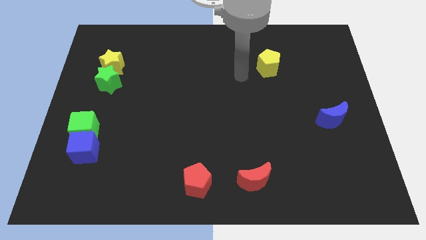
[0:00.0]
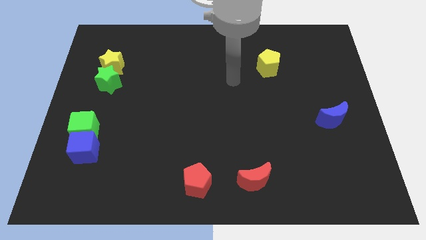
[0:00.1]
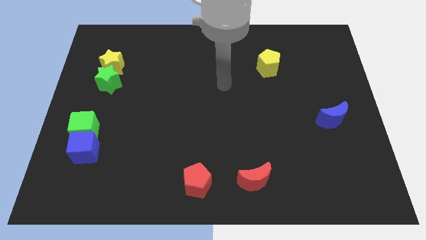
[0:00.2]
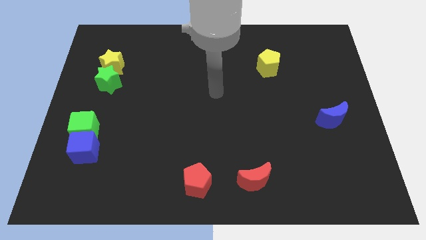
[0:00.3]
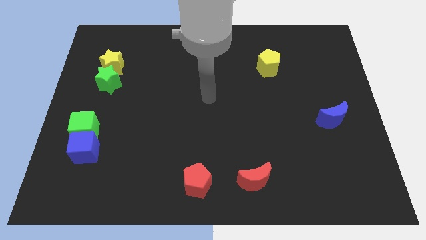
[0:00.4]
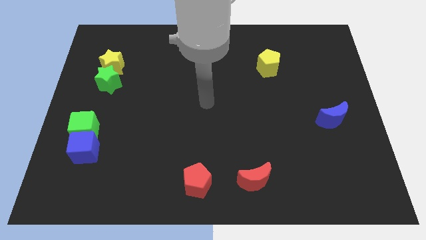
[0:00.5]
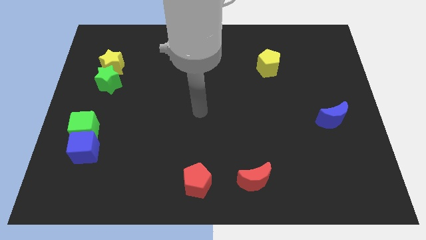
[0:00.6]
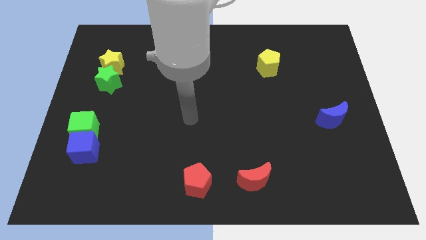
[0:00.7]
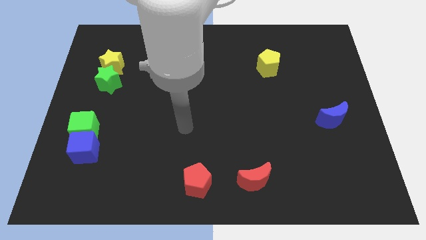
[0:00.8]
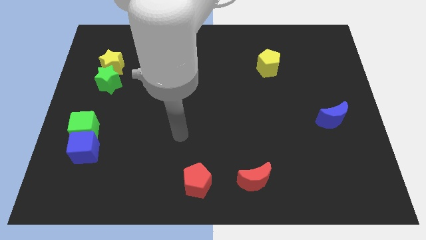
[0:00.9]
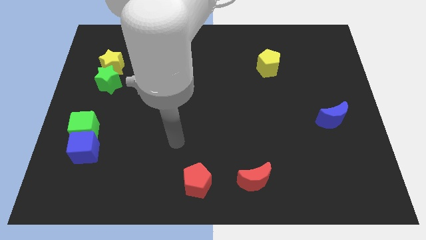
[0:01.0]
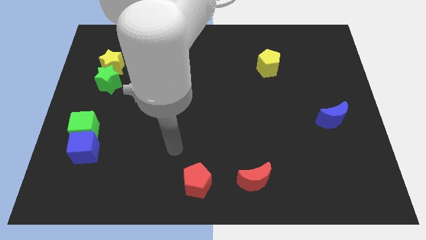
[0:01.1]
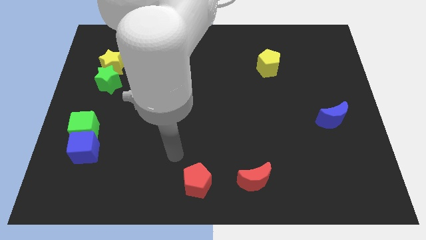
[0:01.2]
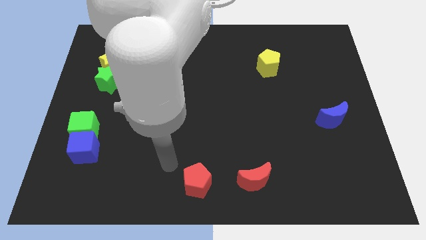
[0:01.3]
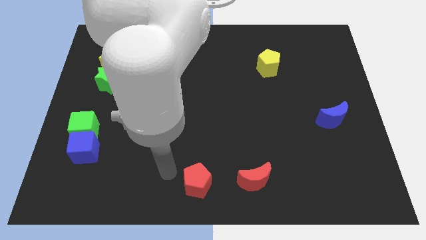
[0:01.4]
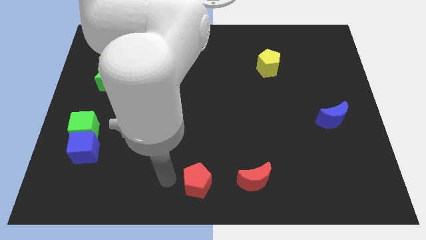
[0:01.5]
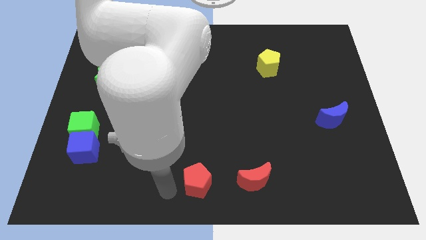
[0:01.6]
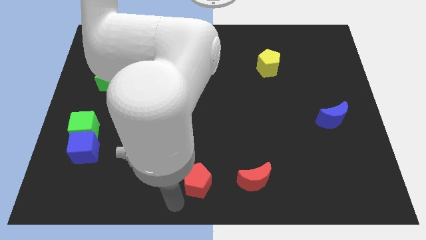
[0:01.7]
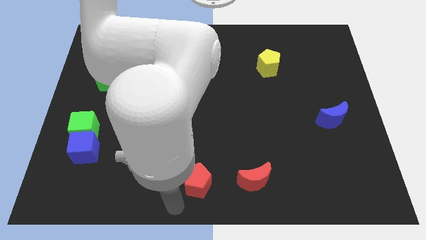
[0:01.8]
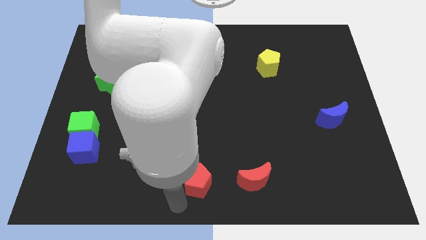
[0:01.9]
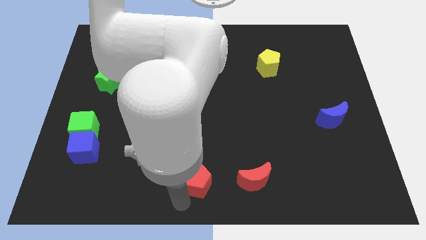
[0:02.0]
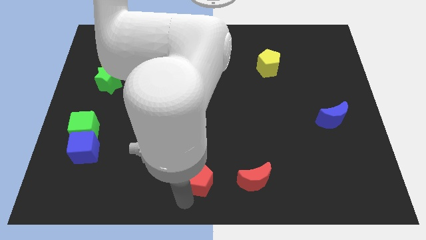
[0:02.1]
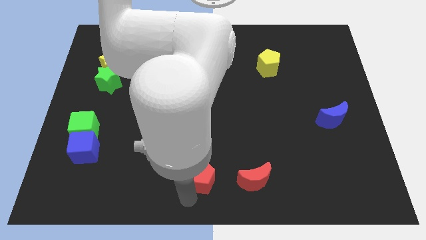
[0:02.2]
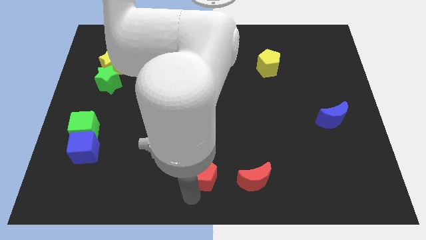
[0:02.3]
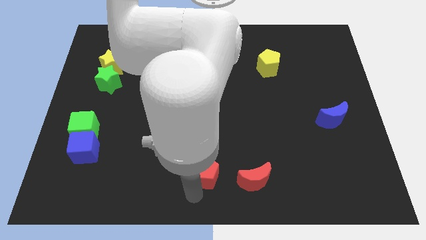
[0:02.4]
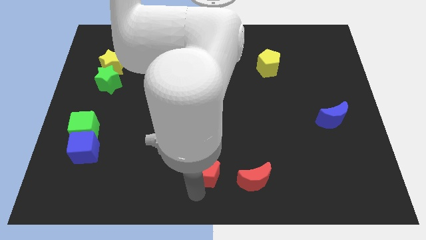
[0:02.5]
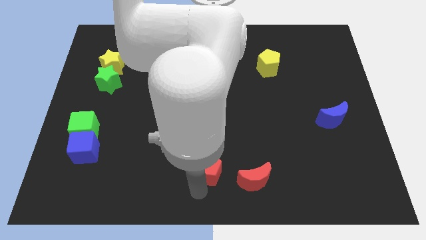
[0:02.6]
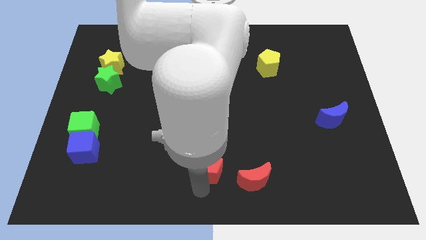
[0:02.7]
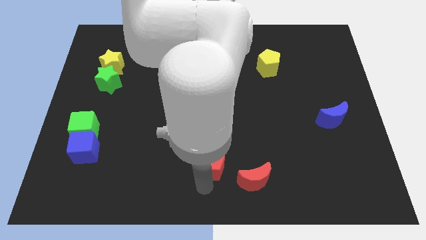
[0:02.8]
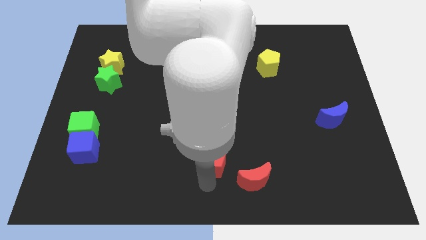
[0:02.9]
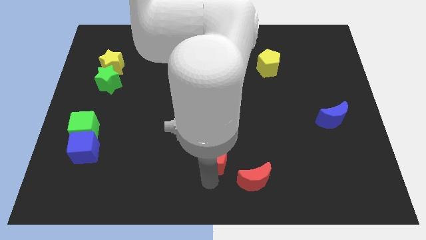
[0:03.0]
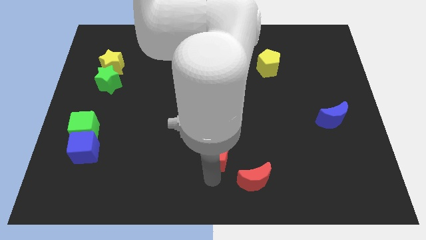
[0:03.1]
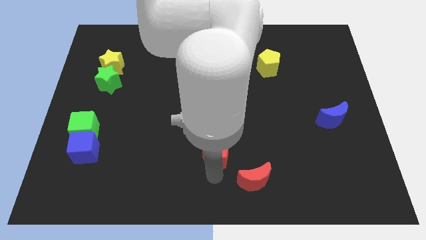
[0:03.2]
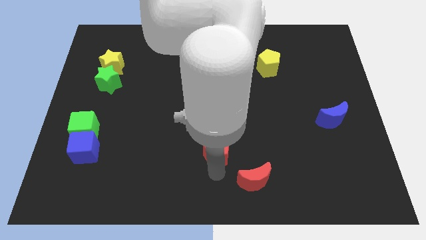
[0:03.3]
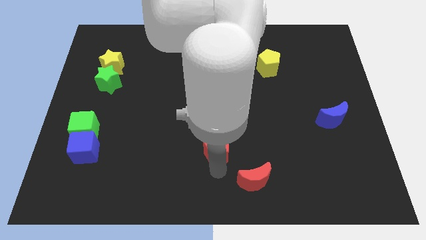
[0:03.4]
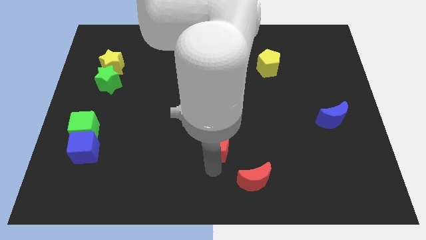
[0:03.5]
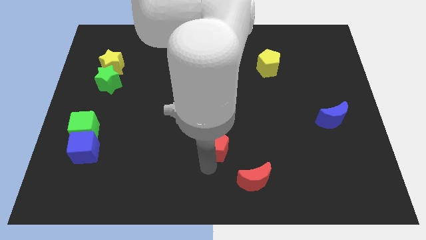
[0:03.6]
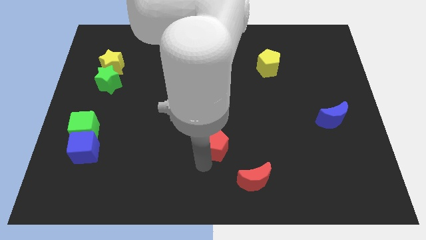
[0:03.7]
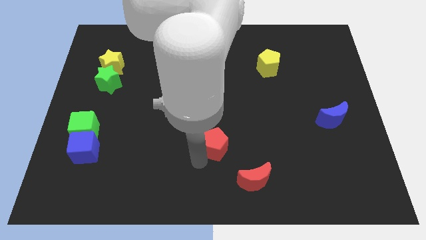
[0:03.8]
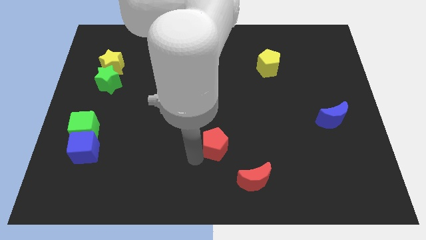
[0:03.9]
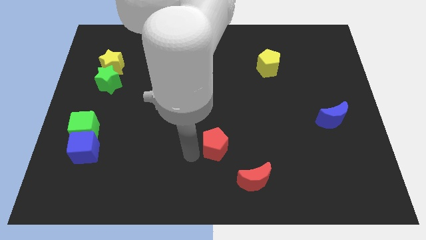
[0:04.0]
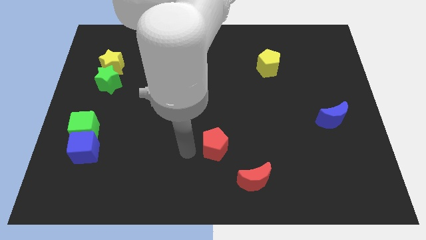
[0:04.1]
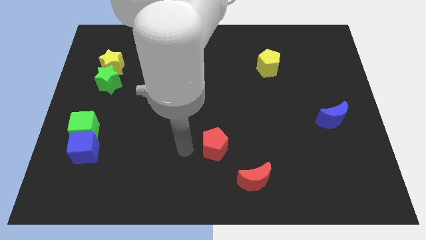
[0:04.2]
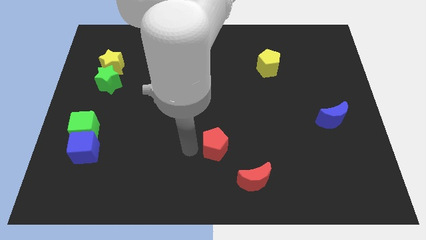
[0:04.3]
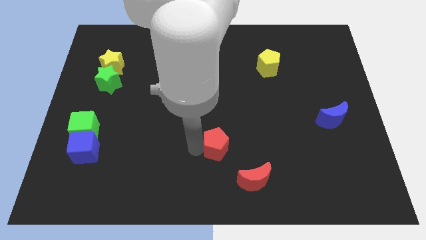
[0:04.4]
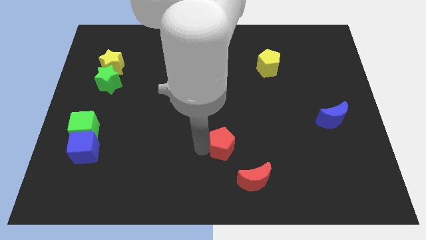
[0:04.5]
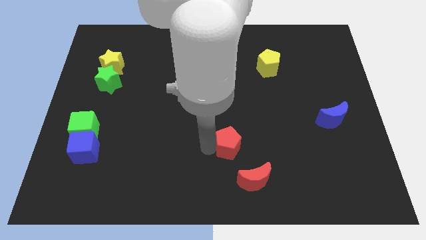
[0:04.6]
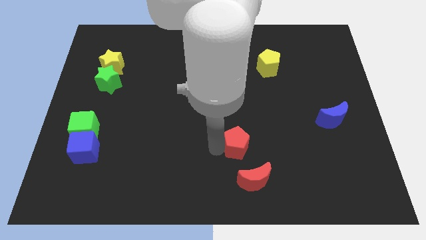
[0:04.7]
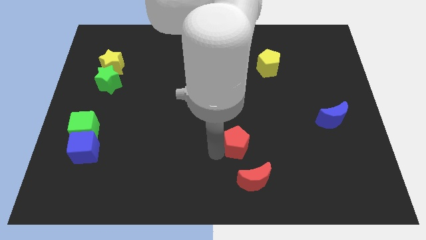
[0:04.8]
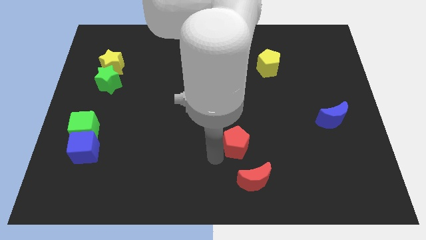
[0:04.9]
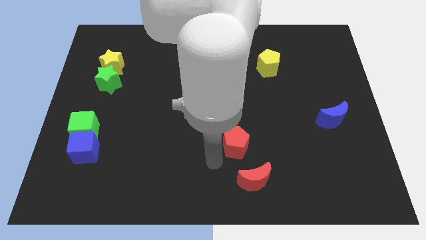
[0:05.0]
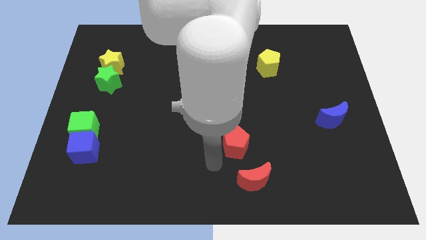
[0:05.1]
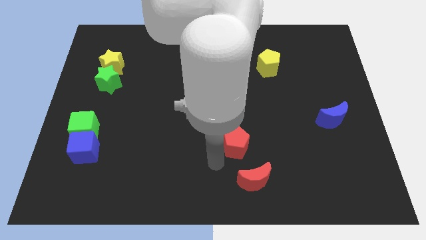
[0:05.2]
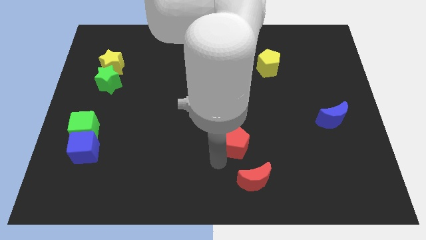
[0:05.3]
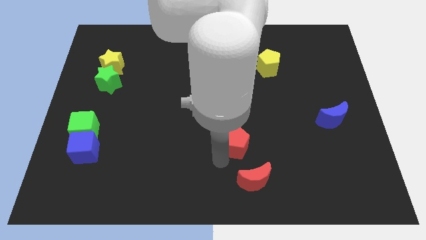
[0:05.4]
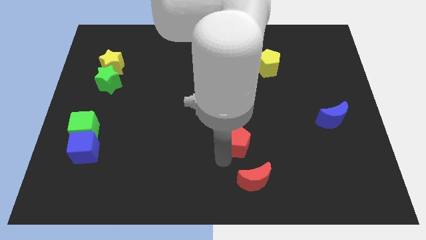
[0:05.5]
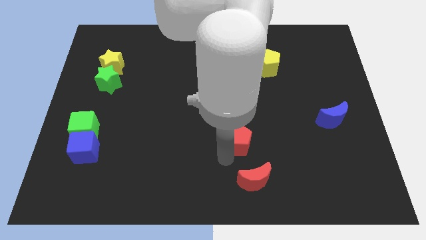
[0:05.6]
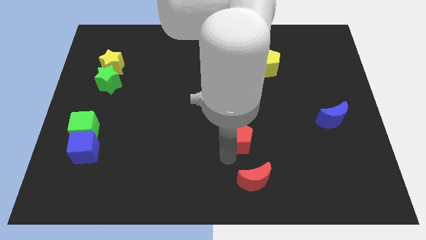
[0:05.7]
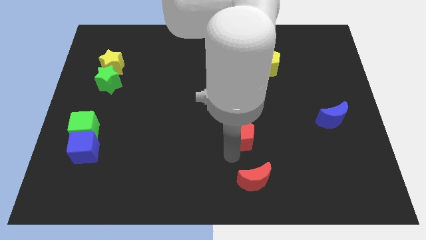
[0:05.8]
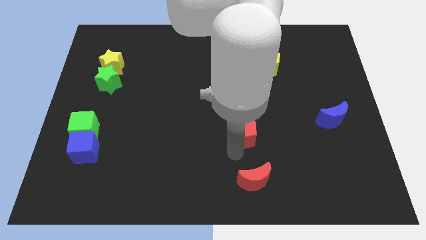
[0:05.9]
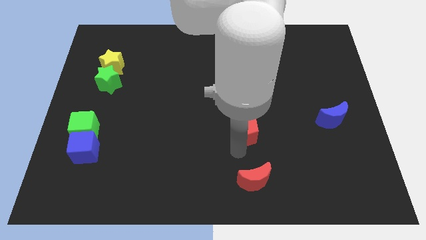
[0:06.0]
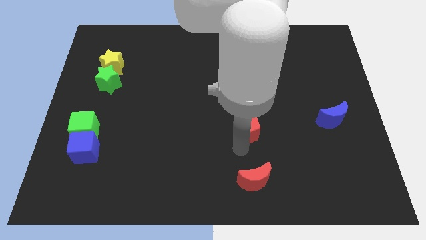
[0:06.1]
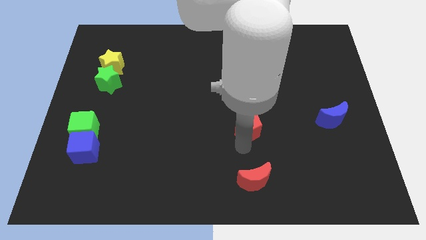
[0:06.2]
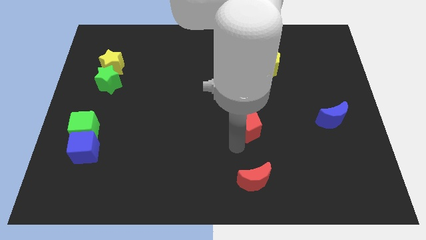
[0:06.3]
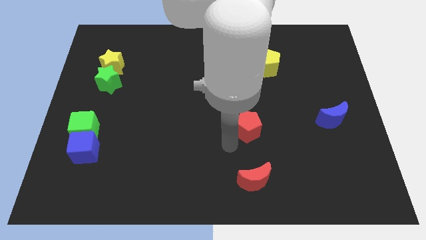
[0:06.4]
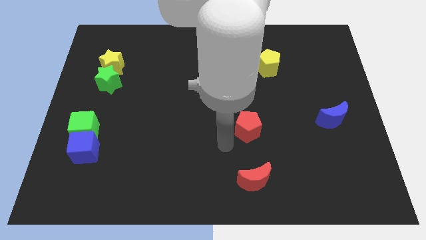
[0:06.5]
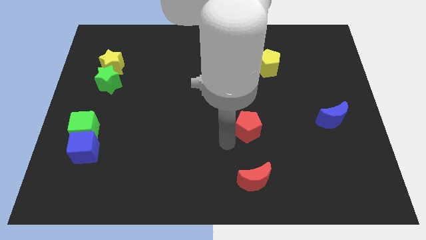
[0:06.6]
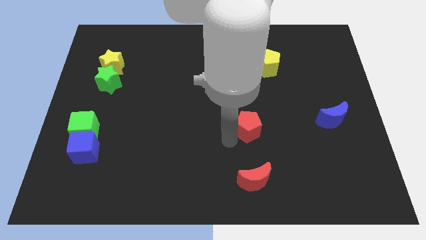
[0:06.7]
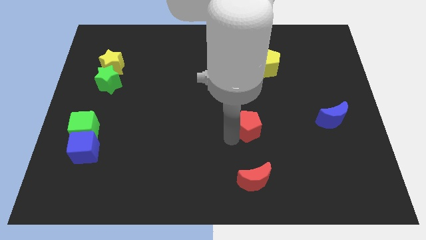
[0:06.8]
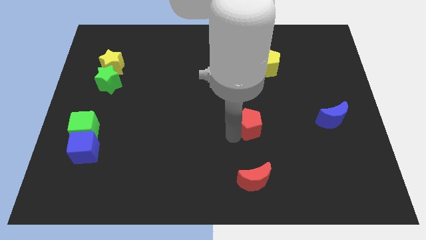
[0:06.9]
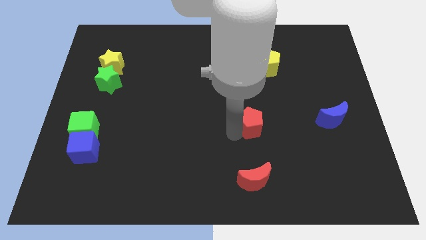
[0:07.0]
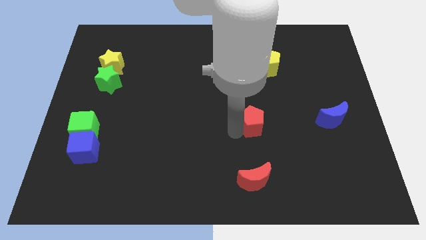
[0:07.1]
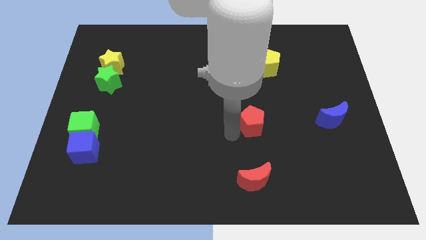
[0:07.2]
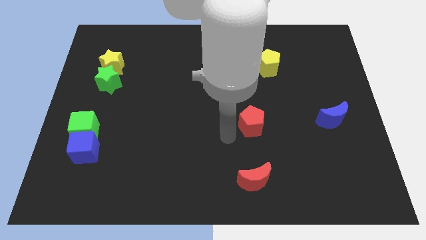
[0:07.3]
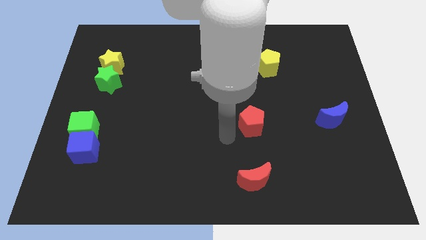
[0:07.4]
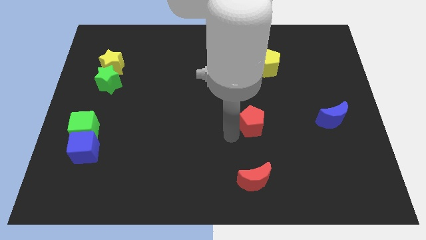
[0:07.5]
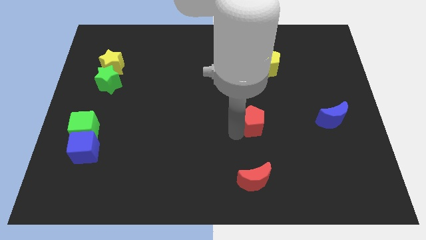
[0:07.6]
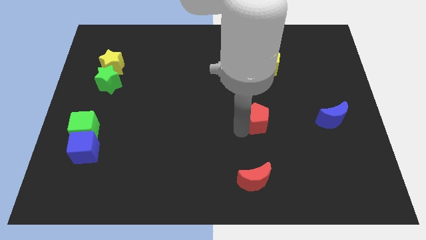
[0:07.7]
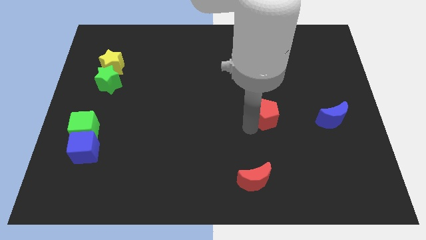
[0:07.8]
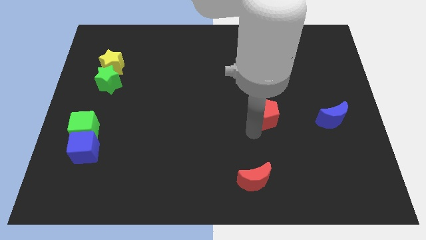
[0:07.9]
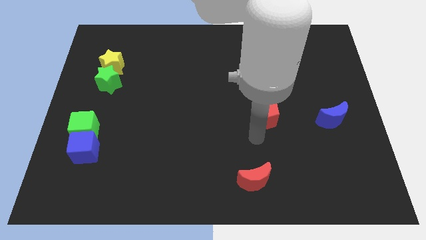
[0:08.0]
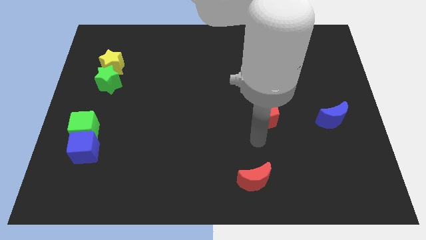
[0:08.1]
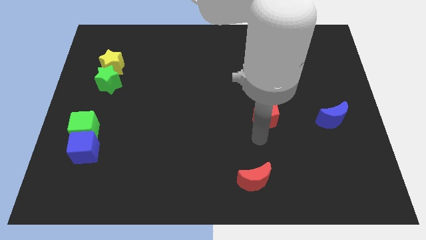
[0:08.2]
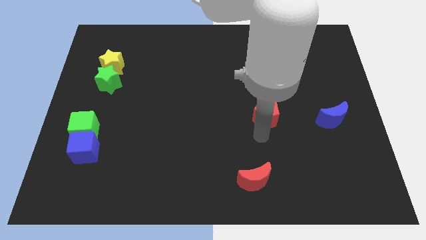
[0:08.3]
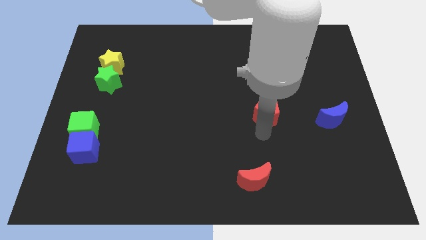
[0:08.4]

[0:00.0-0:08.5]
push the red pentagon to the bottom of the yellow pentagon
